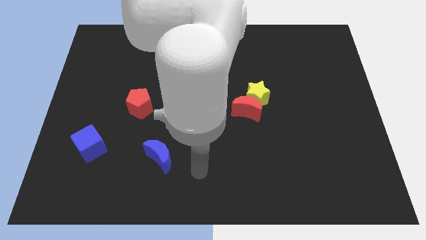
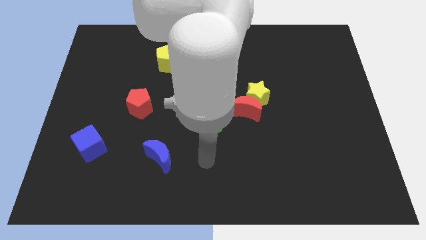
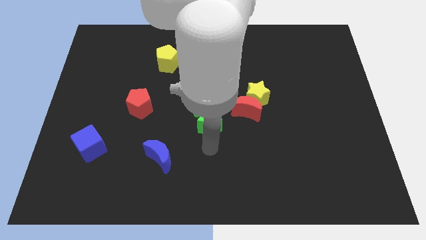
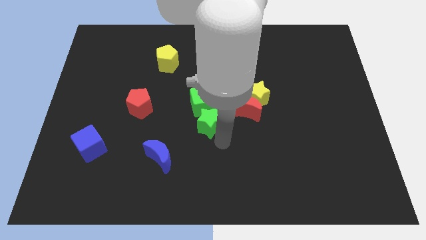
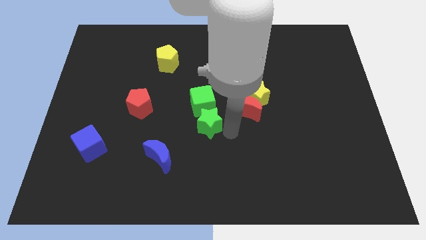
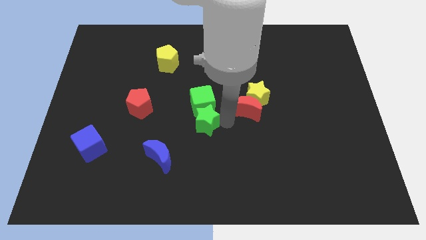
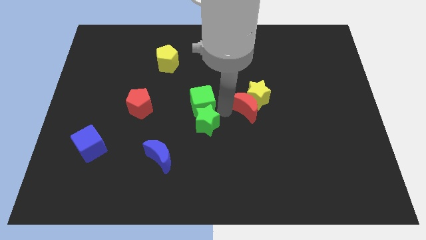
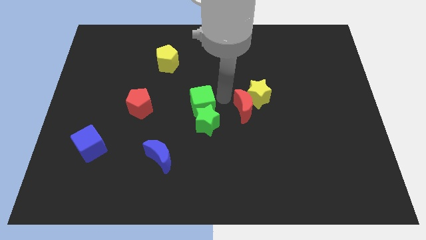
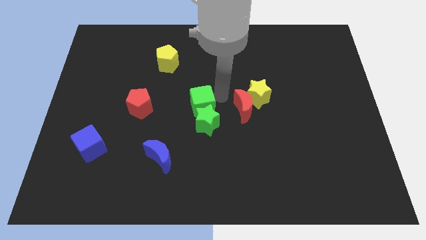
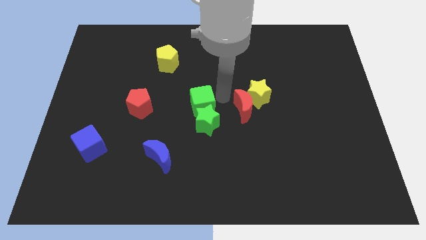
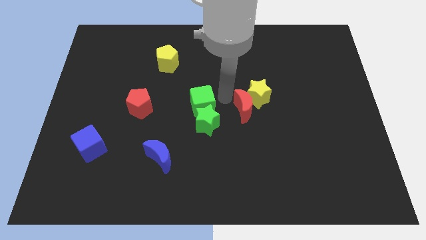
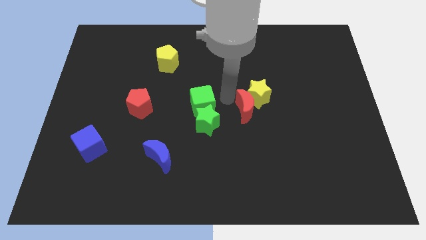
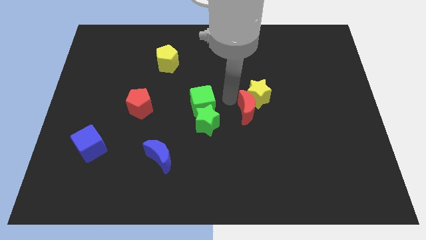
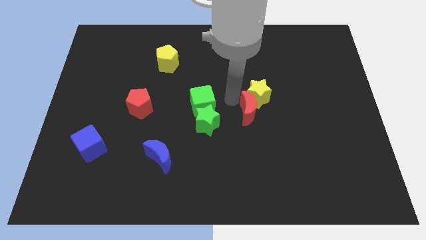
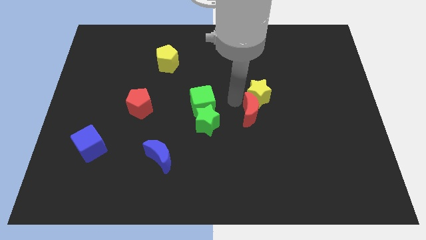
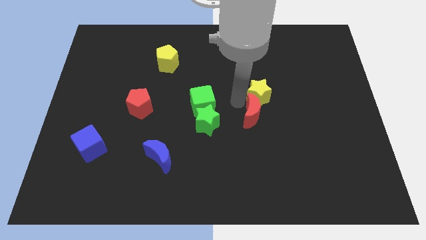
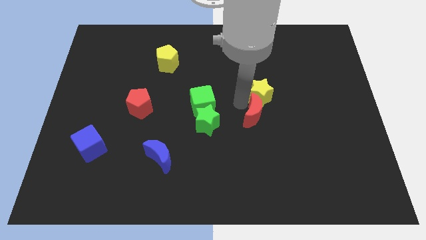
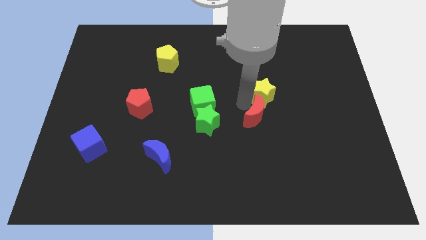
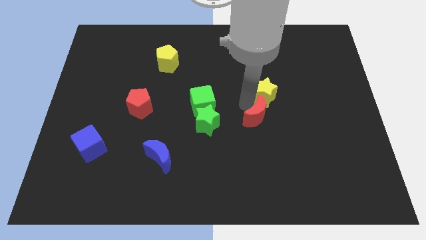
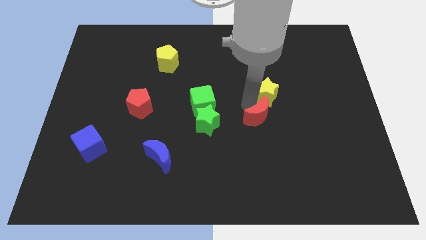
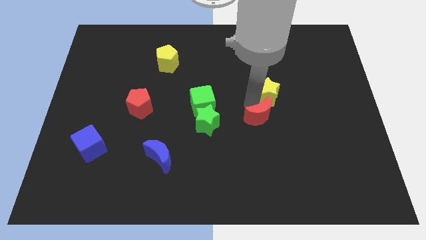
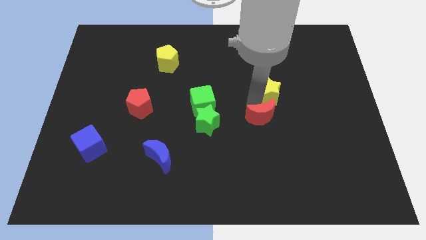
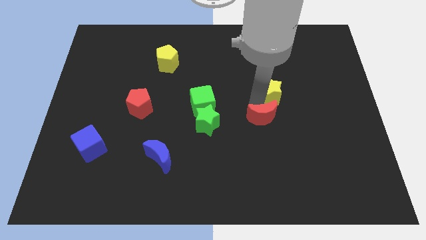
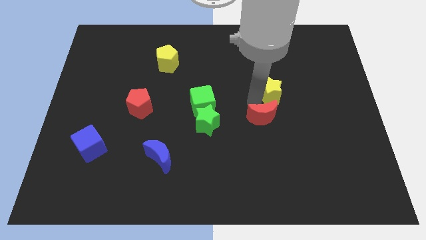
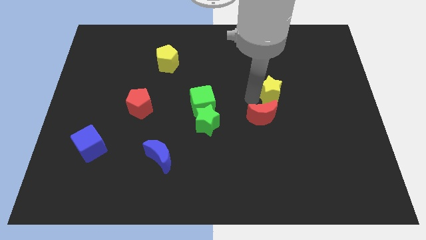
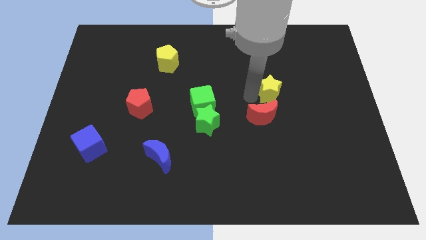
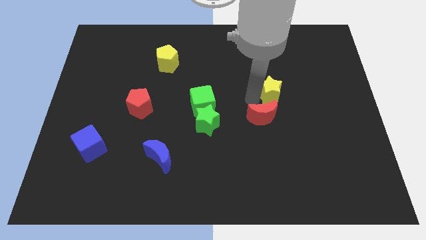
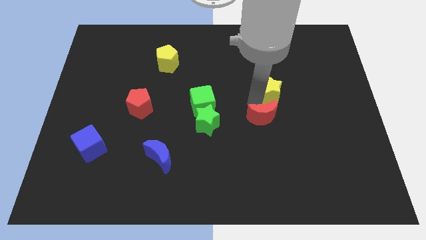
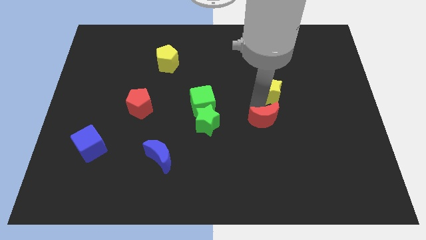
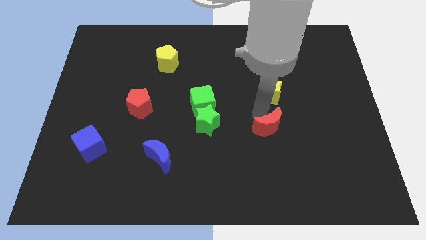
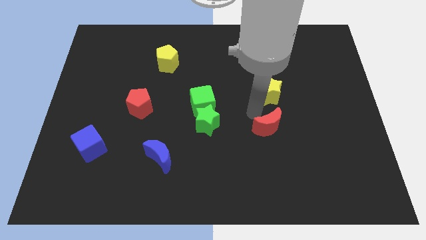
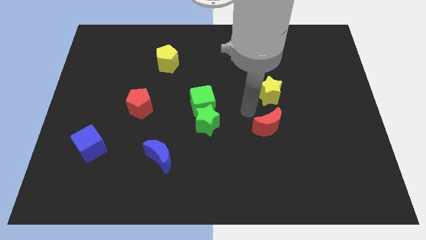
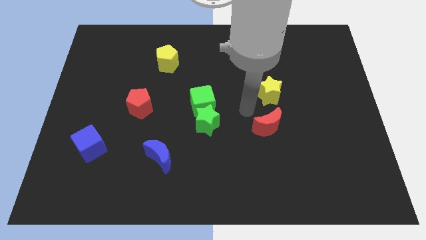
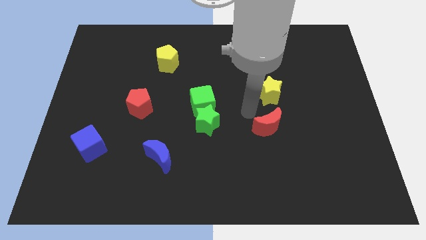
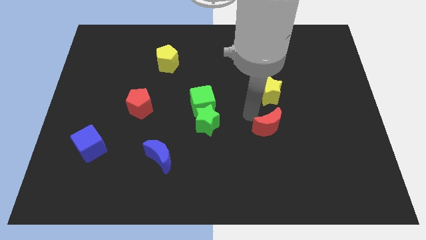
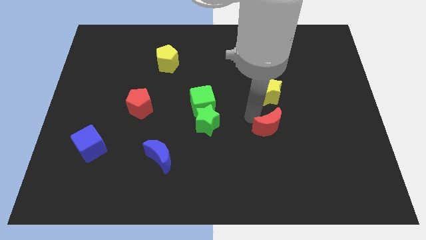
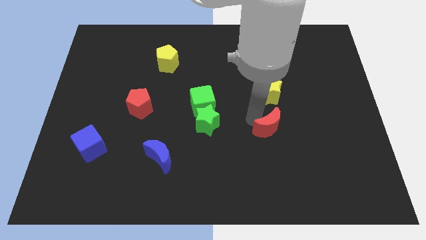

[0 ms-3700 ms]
push the red moon slightly downwards and then to the right

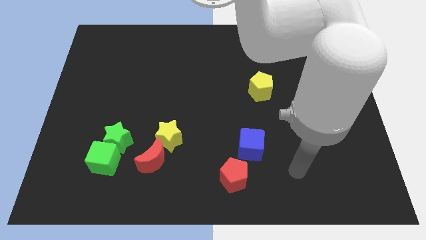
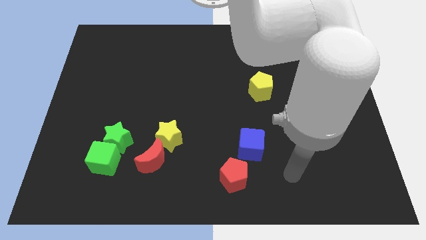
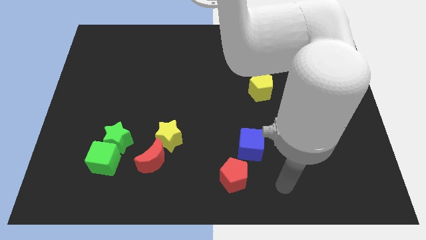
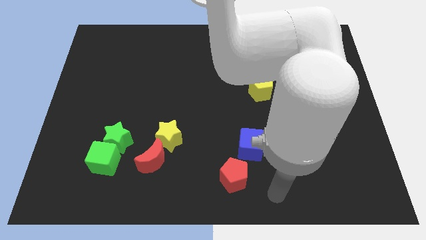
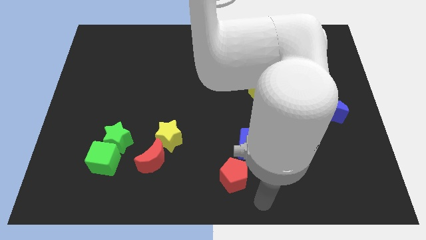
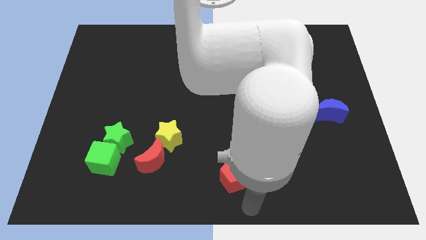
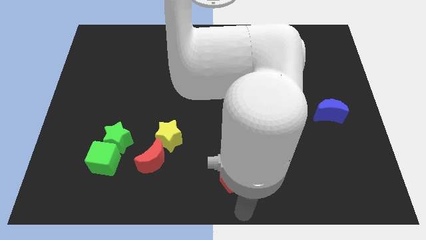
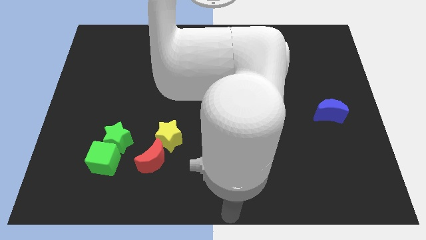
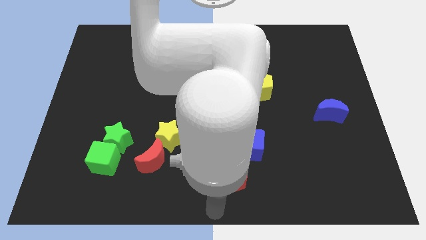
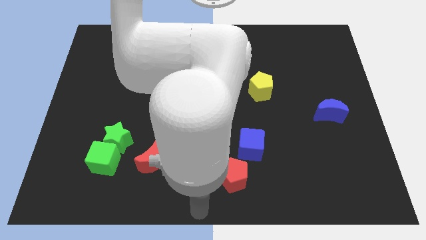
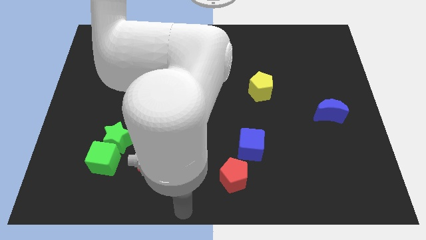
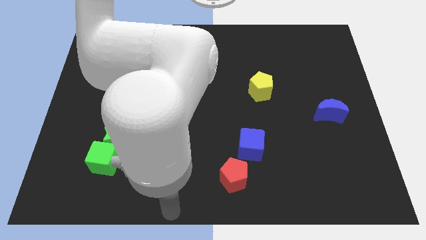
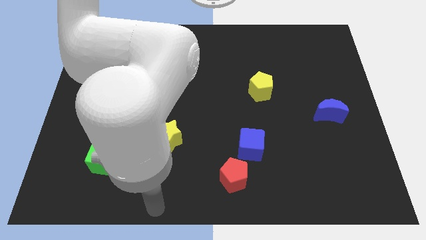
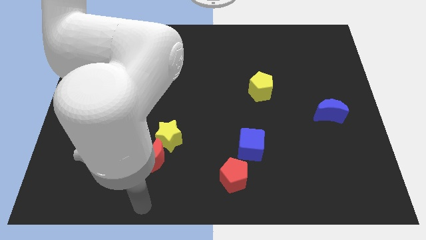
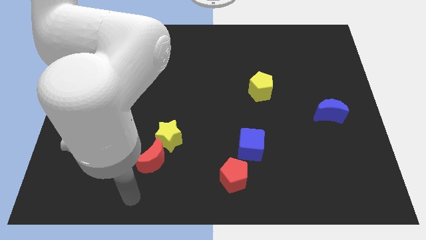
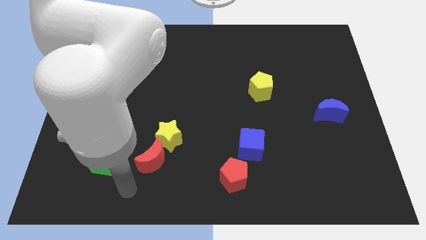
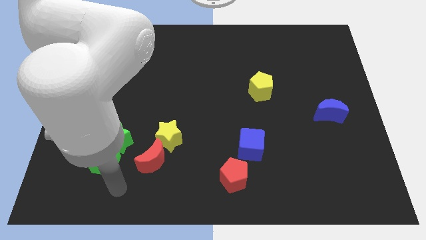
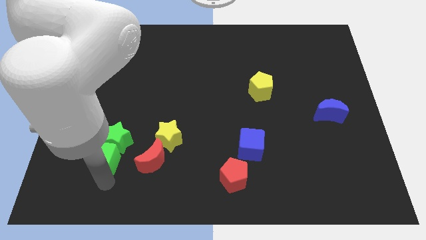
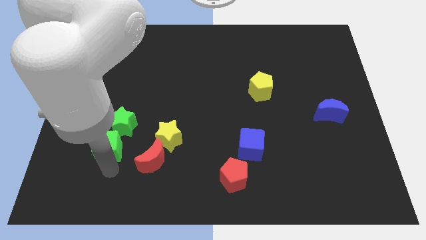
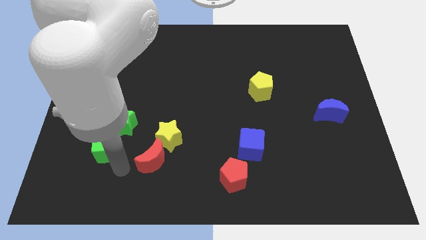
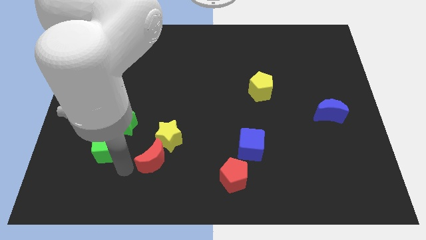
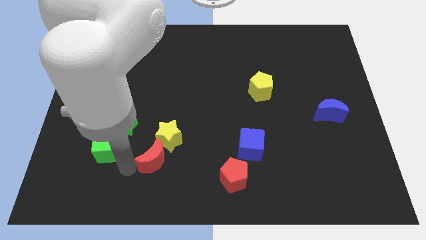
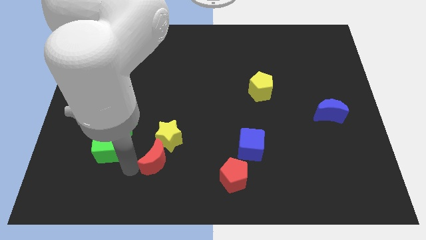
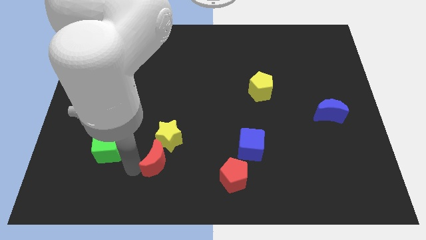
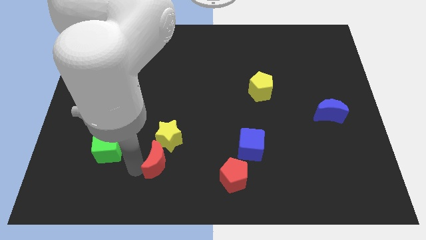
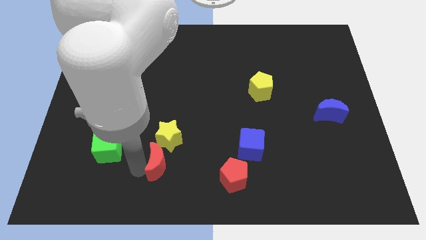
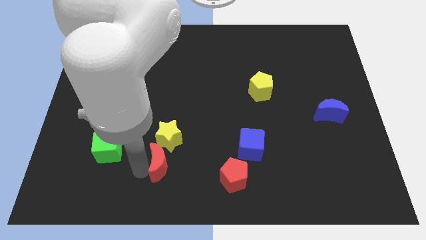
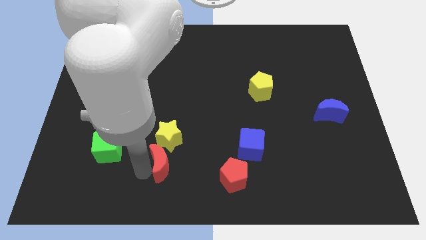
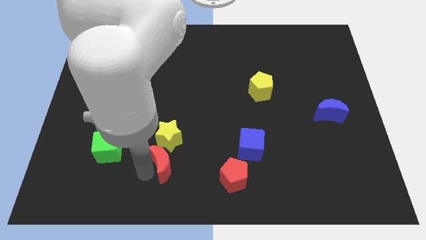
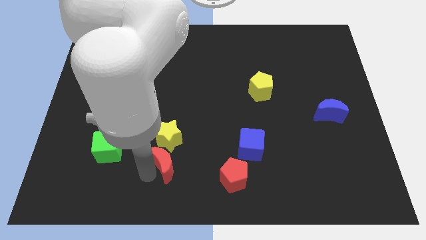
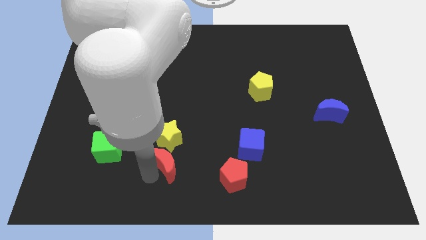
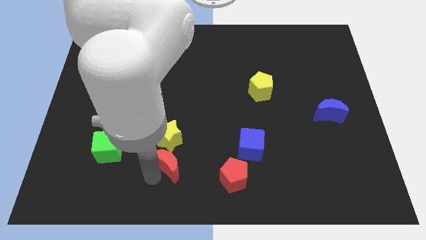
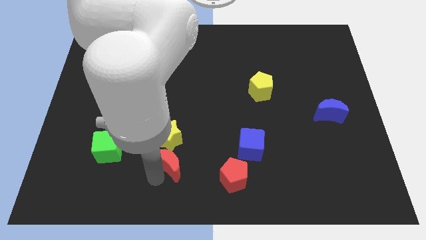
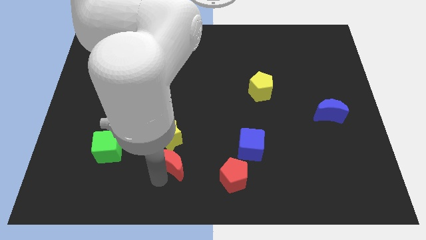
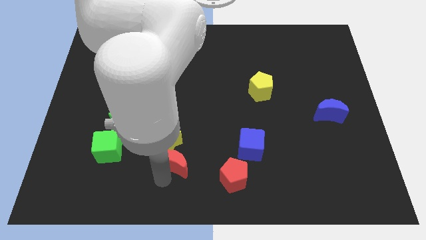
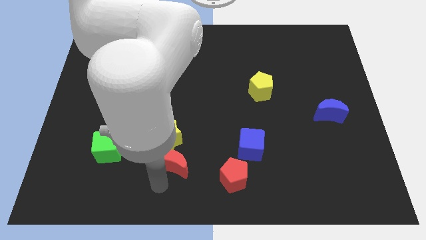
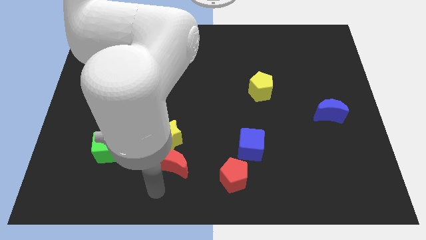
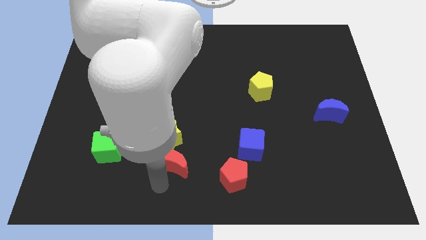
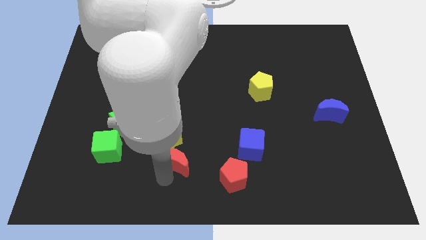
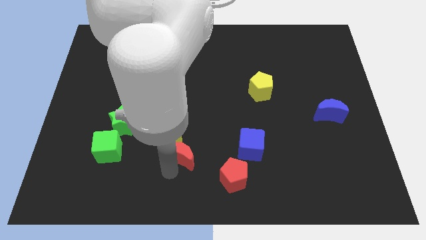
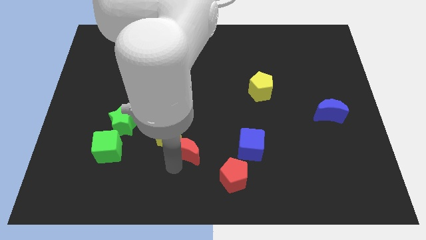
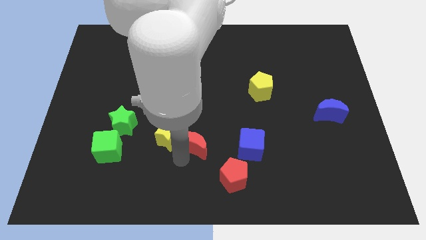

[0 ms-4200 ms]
slide the red moon a little bit upwards and to the right diagonally

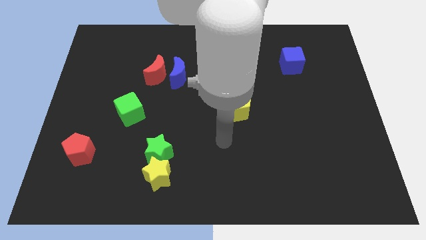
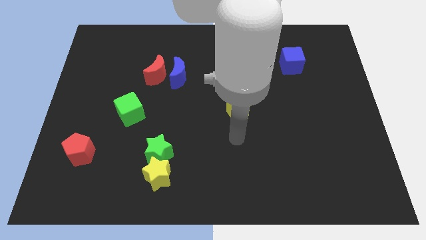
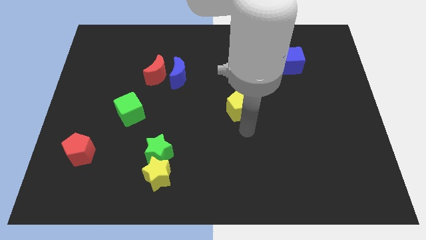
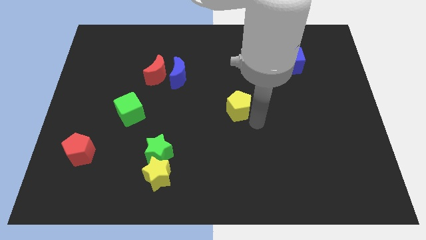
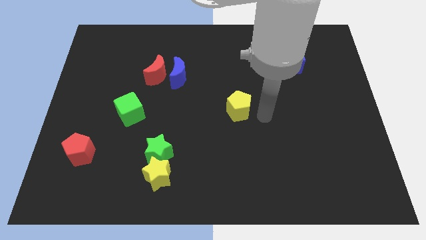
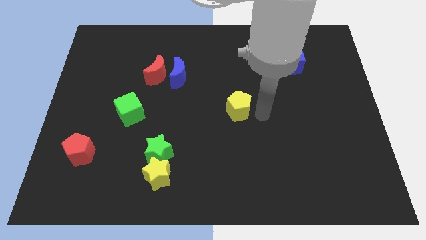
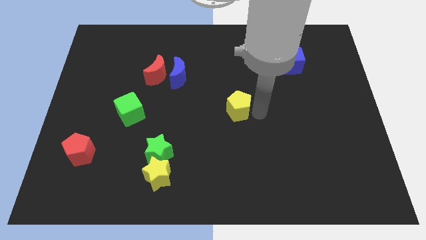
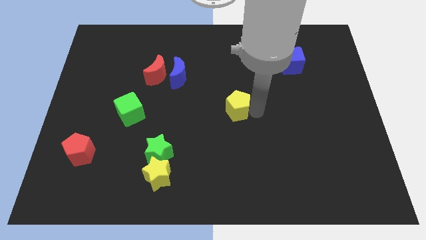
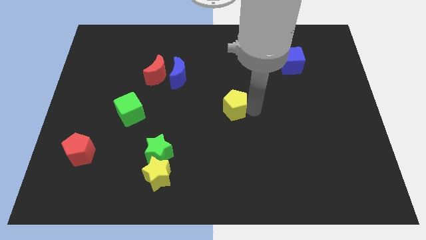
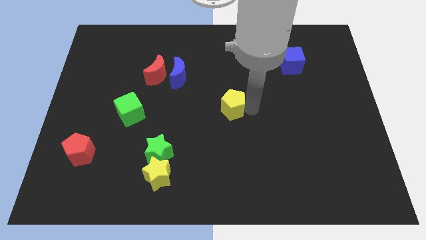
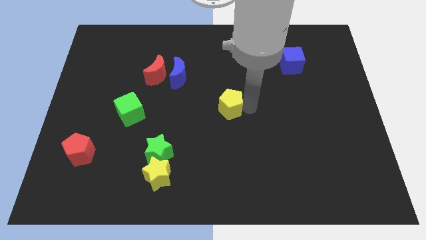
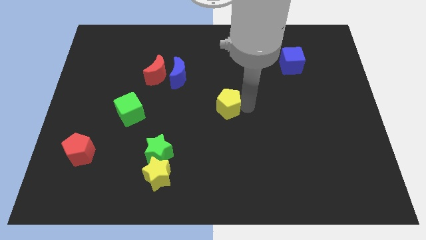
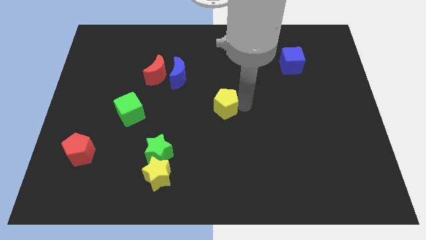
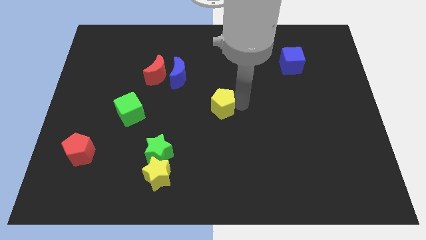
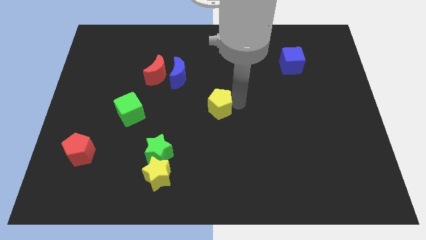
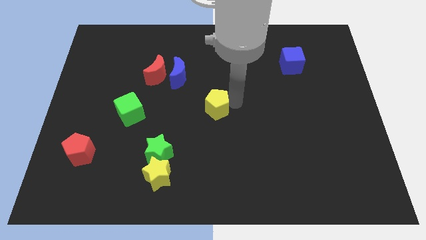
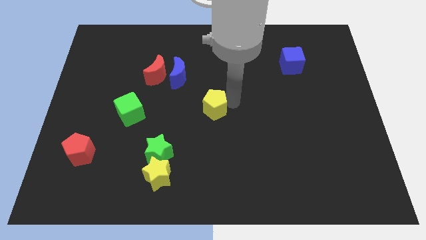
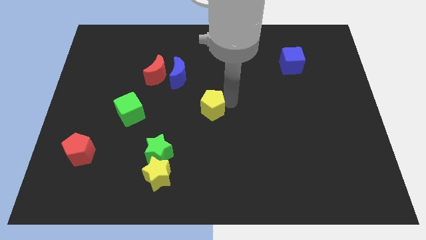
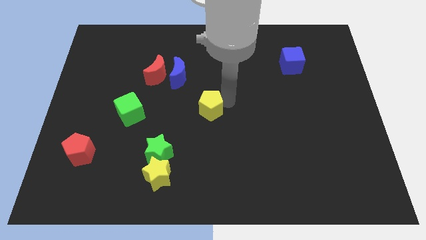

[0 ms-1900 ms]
push the yellow pentagon to the left slightly
